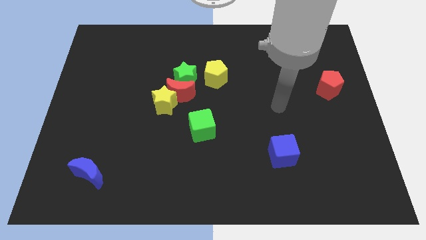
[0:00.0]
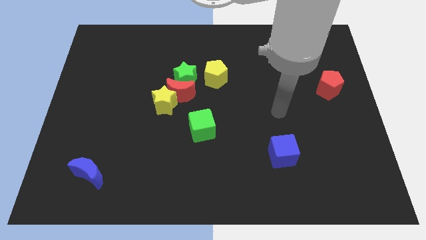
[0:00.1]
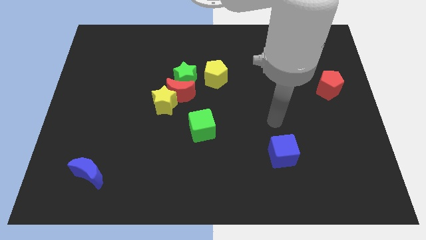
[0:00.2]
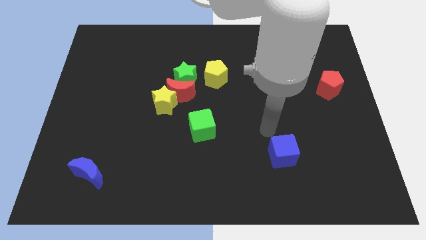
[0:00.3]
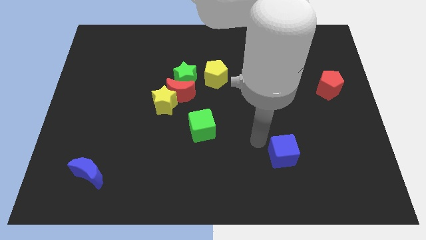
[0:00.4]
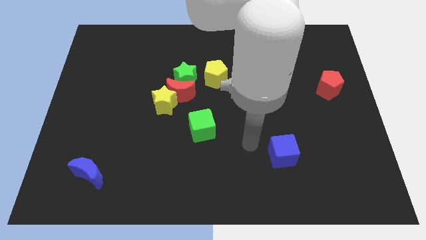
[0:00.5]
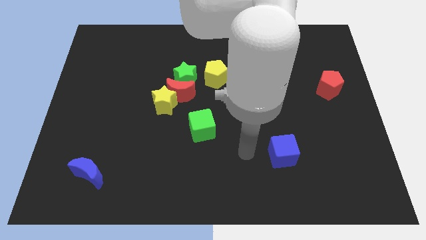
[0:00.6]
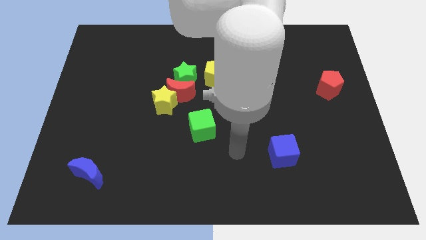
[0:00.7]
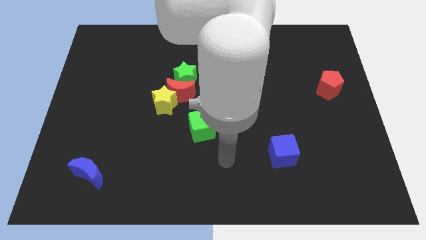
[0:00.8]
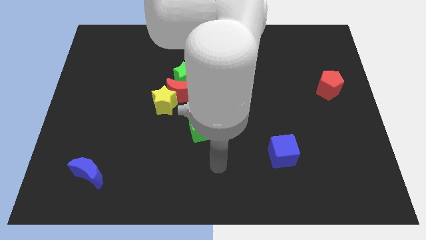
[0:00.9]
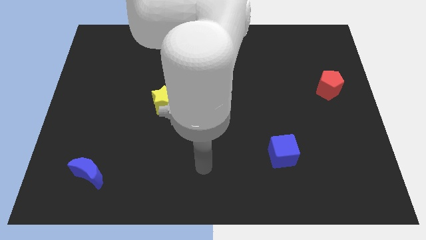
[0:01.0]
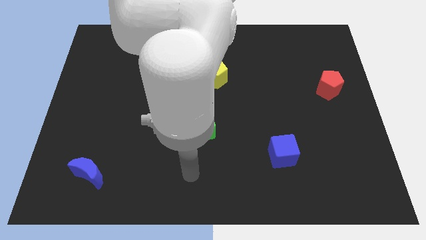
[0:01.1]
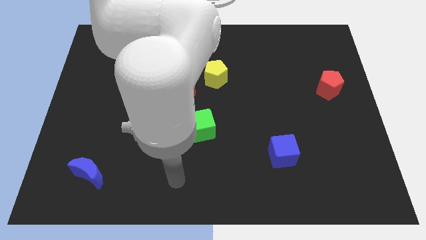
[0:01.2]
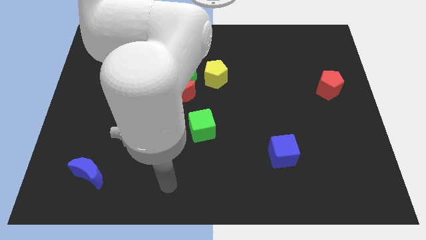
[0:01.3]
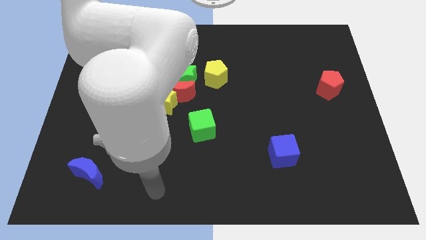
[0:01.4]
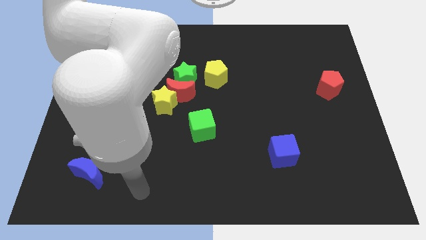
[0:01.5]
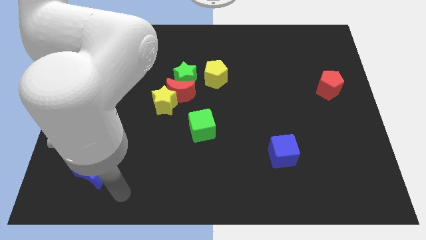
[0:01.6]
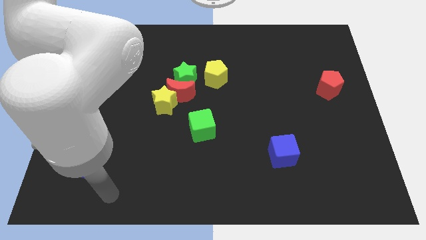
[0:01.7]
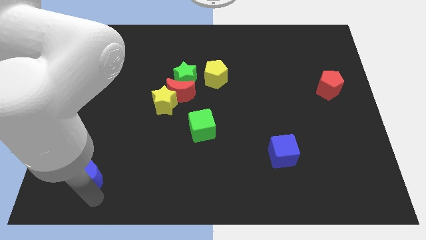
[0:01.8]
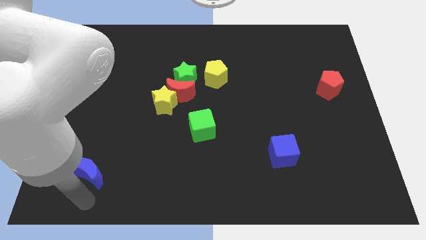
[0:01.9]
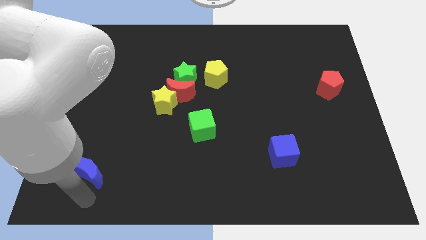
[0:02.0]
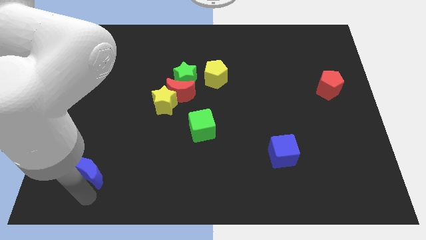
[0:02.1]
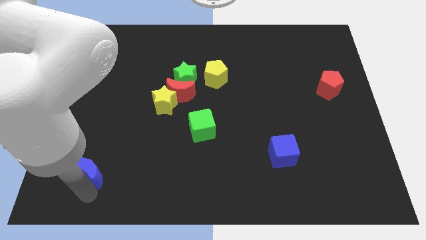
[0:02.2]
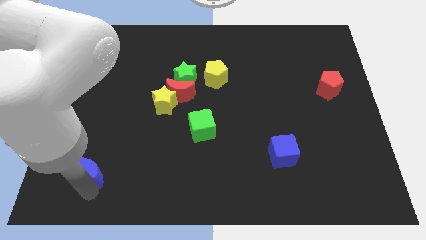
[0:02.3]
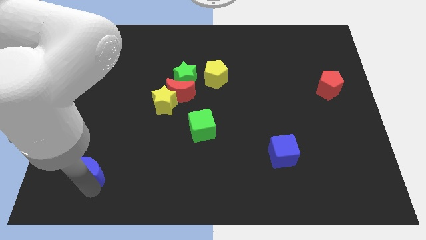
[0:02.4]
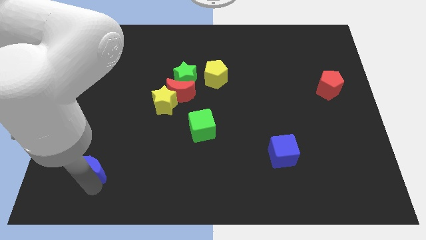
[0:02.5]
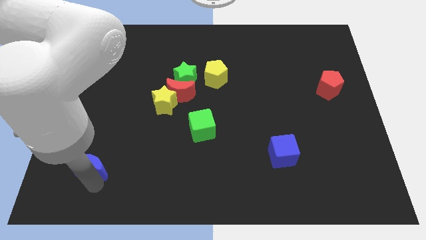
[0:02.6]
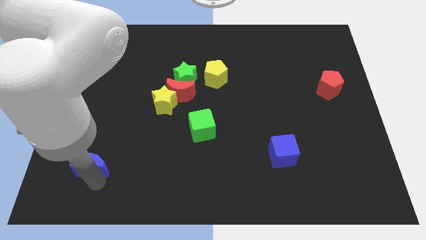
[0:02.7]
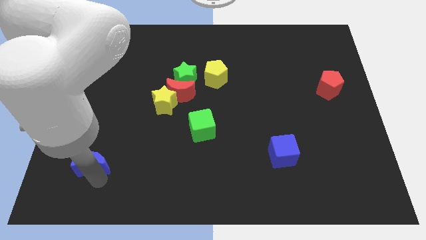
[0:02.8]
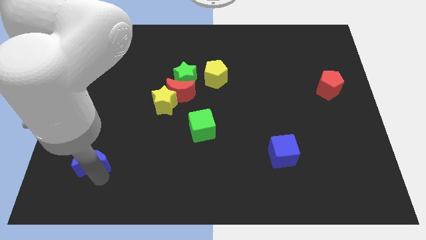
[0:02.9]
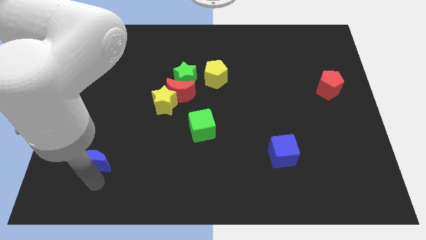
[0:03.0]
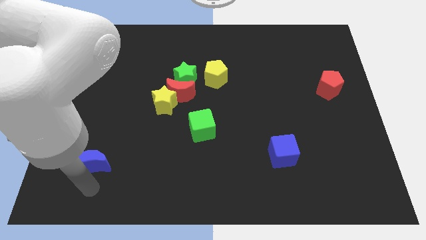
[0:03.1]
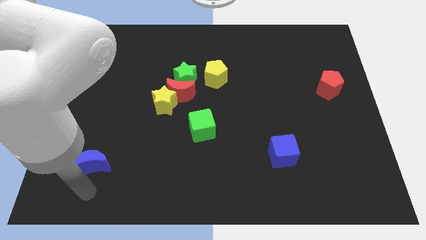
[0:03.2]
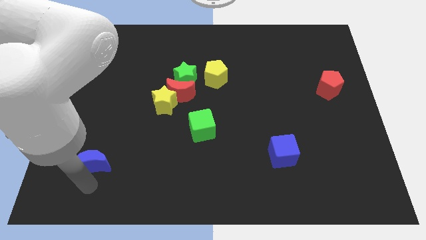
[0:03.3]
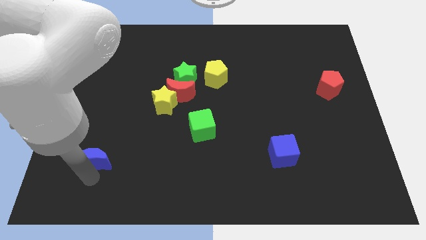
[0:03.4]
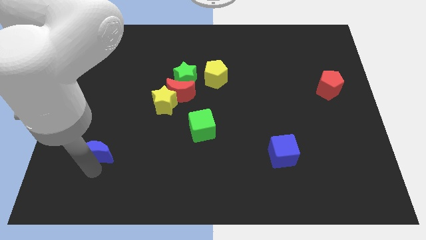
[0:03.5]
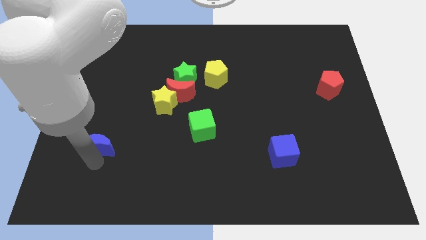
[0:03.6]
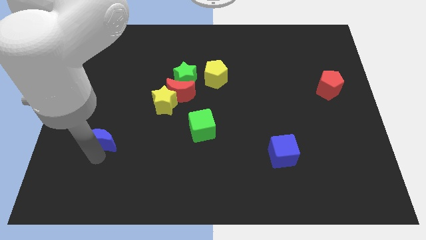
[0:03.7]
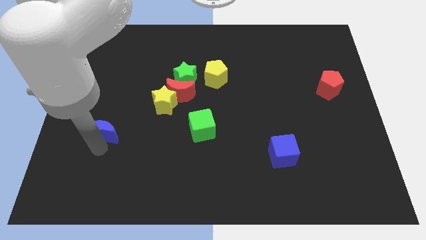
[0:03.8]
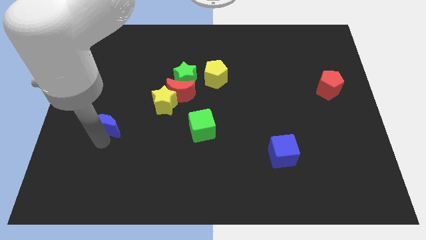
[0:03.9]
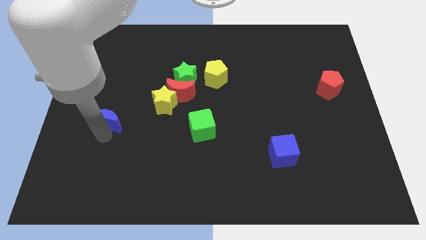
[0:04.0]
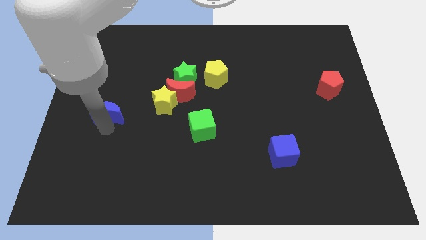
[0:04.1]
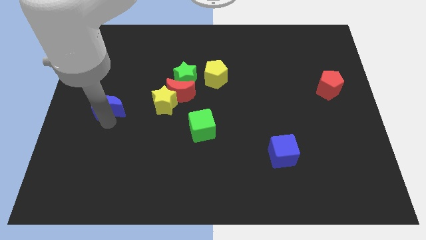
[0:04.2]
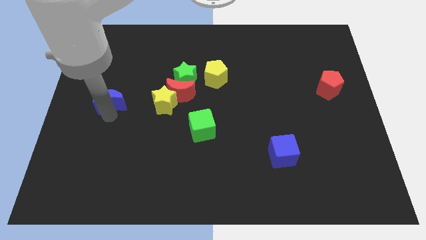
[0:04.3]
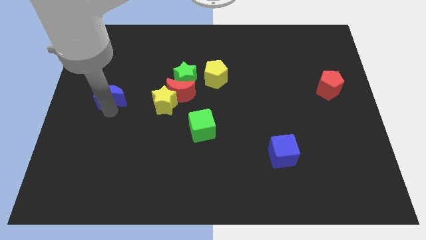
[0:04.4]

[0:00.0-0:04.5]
slide the blue moon upwards

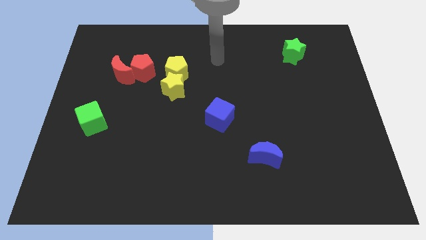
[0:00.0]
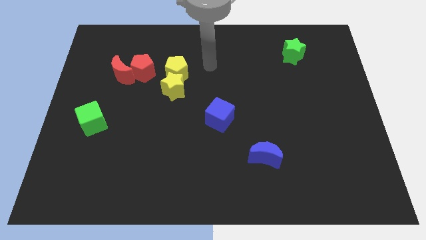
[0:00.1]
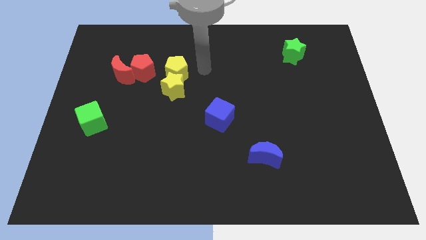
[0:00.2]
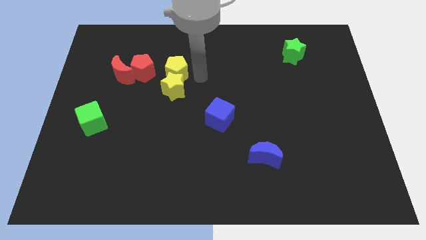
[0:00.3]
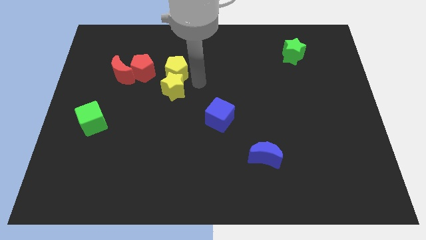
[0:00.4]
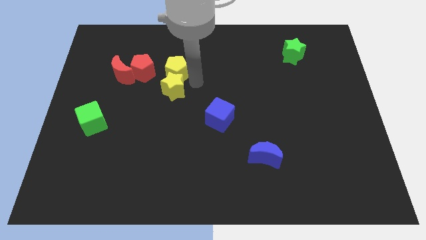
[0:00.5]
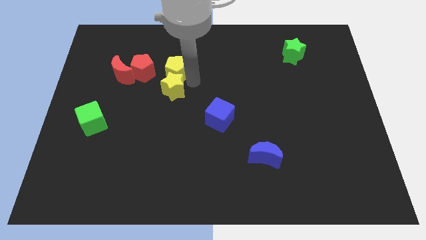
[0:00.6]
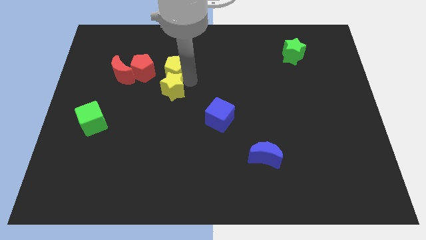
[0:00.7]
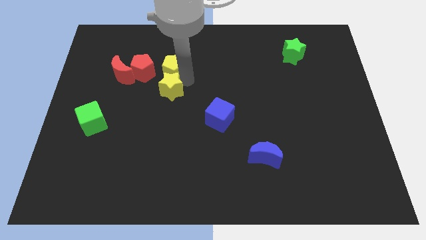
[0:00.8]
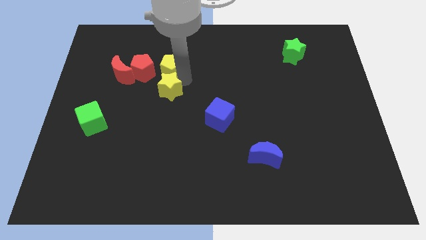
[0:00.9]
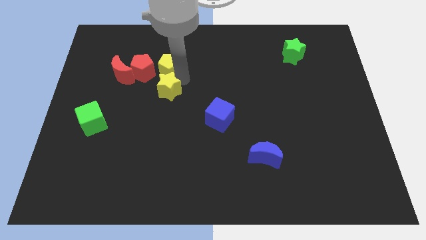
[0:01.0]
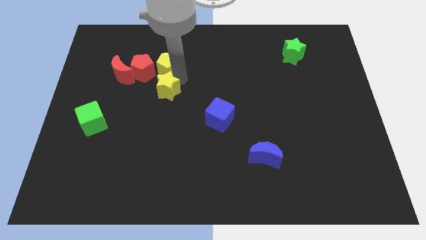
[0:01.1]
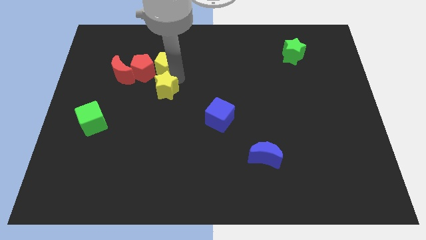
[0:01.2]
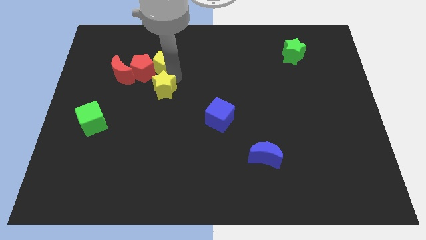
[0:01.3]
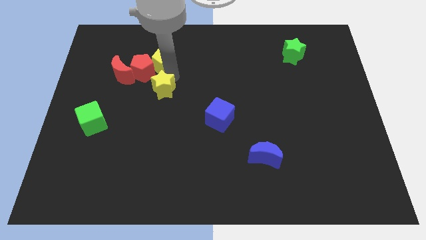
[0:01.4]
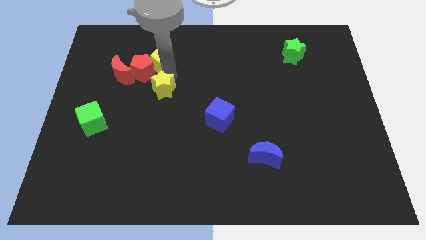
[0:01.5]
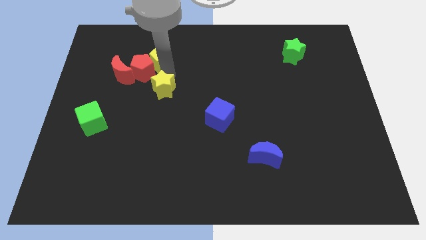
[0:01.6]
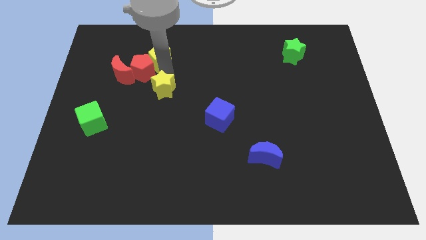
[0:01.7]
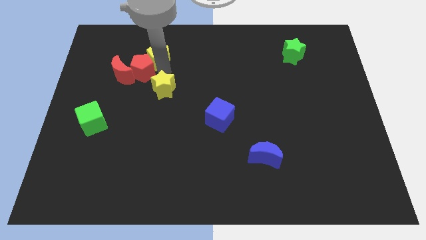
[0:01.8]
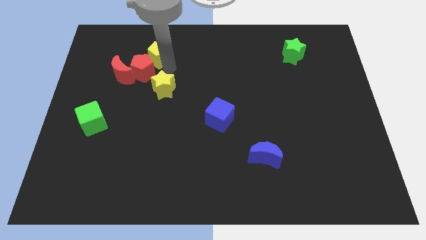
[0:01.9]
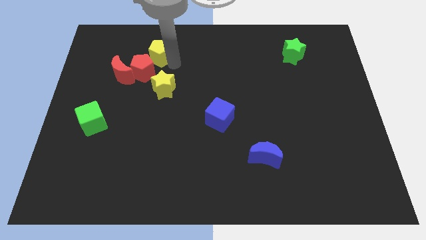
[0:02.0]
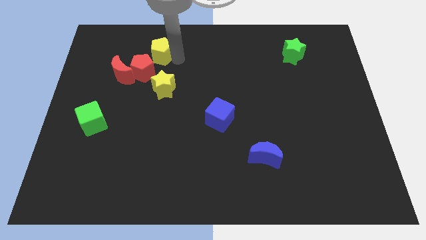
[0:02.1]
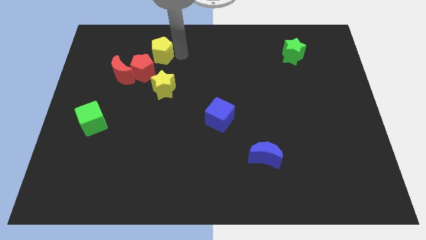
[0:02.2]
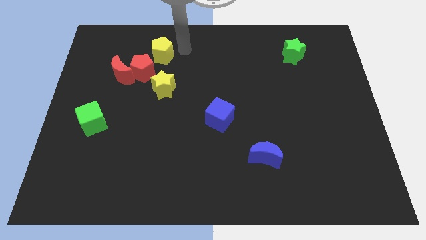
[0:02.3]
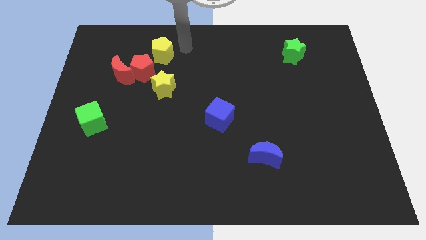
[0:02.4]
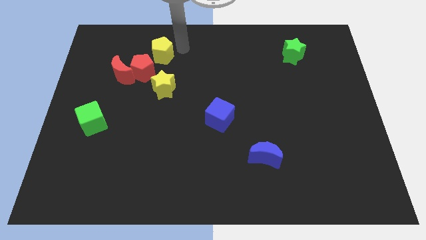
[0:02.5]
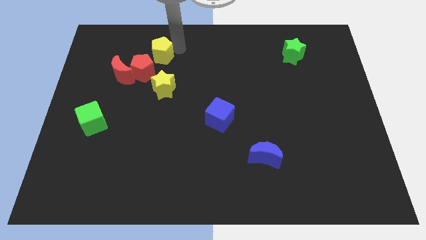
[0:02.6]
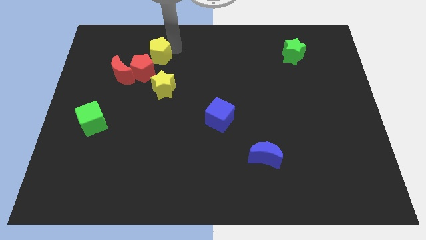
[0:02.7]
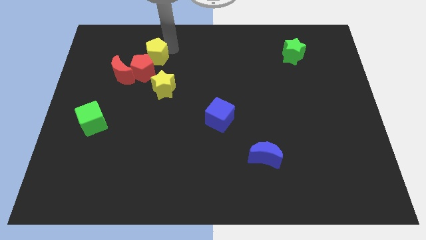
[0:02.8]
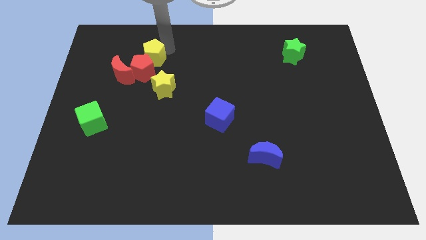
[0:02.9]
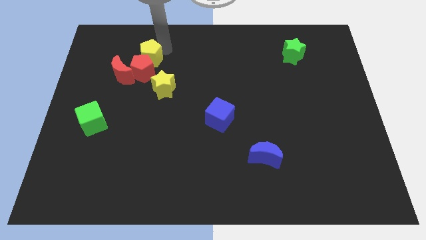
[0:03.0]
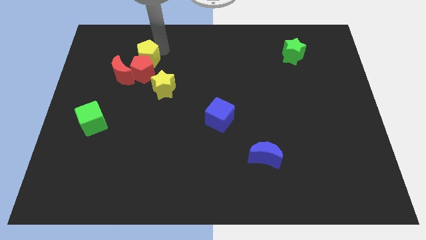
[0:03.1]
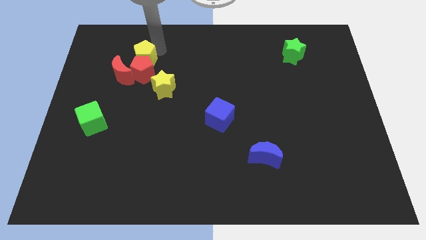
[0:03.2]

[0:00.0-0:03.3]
move the yellow pentagon a little bit to the left
